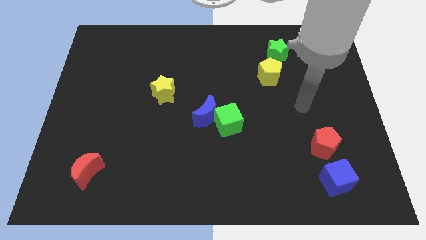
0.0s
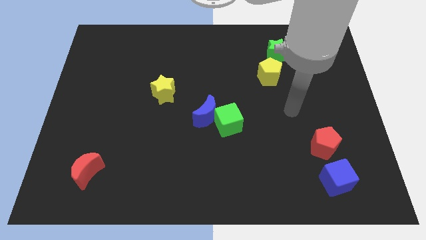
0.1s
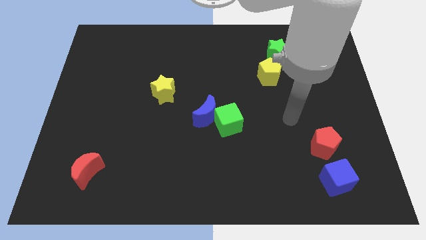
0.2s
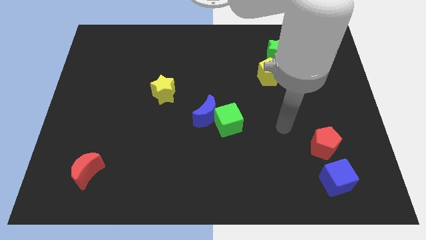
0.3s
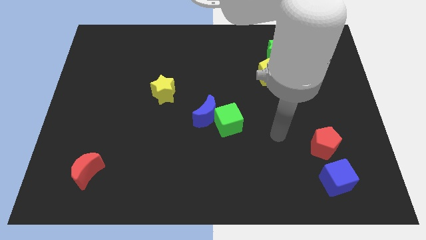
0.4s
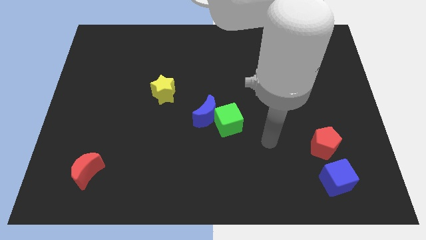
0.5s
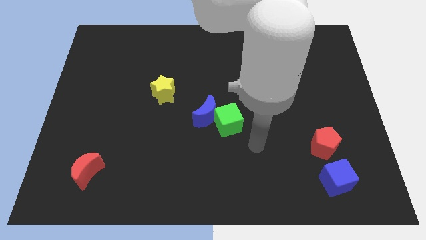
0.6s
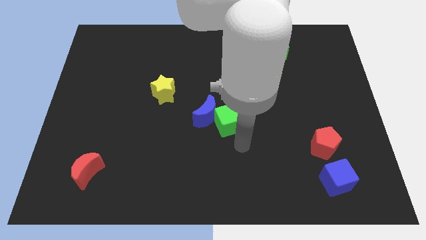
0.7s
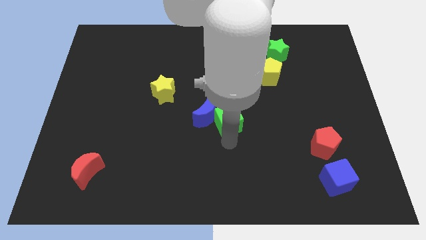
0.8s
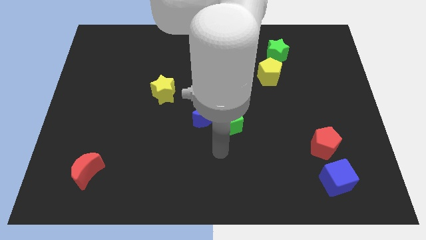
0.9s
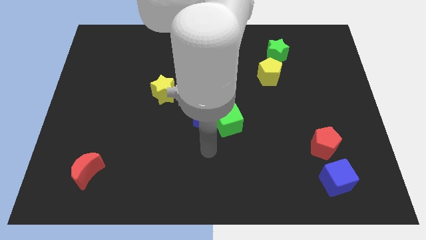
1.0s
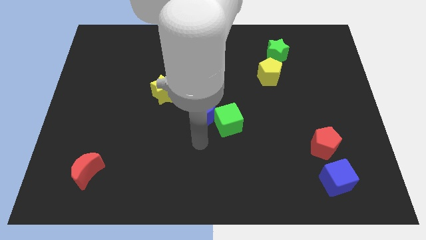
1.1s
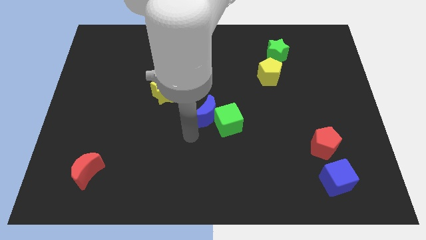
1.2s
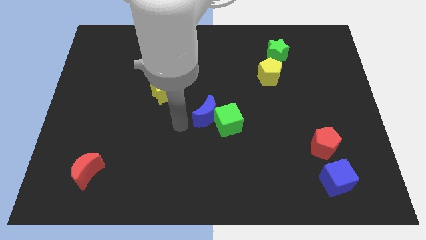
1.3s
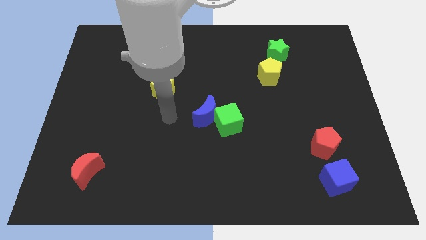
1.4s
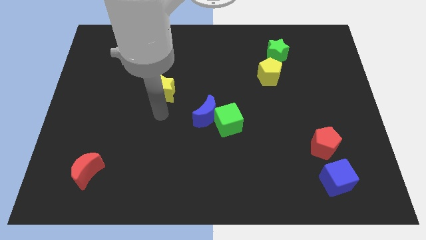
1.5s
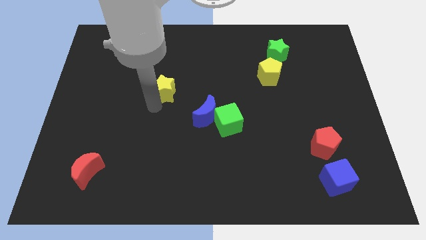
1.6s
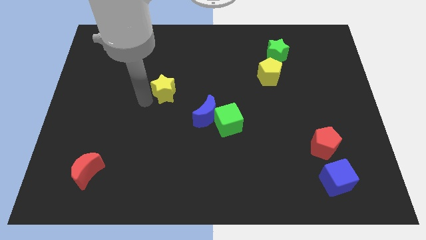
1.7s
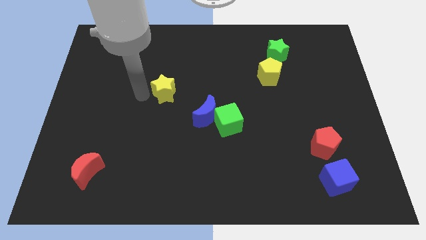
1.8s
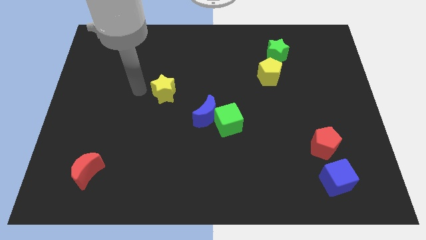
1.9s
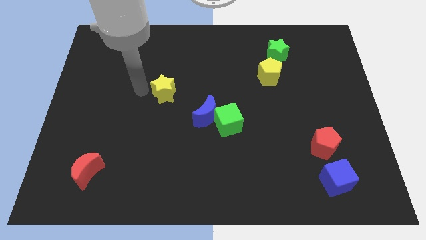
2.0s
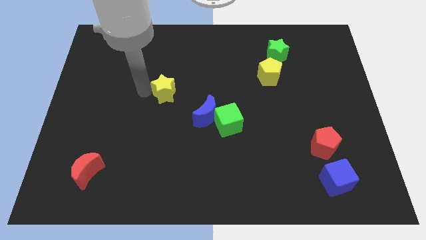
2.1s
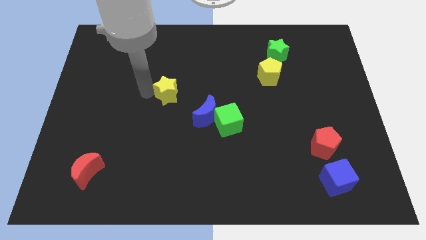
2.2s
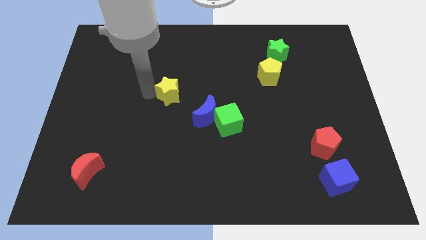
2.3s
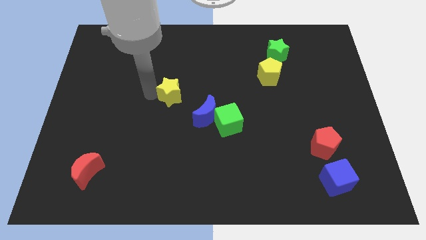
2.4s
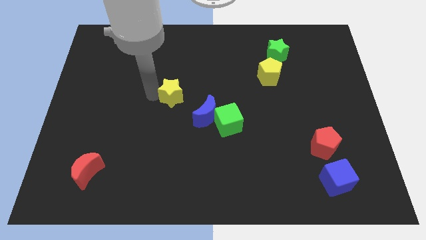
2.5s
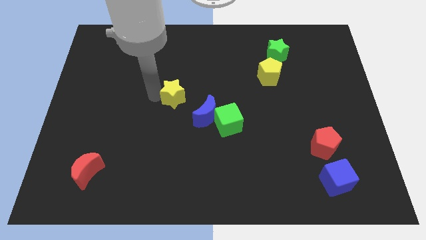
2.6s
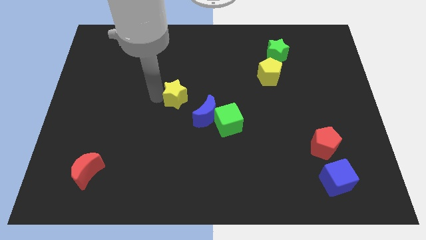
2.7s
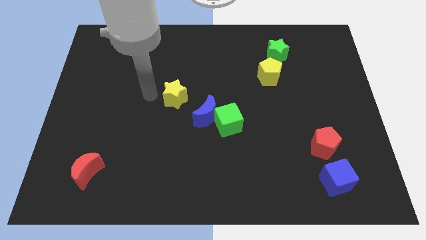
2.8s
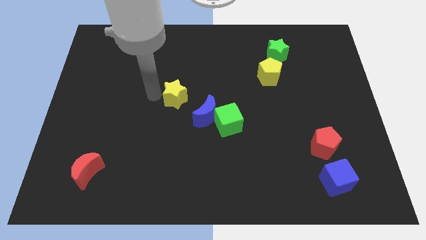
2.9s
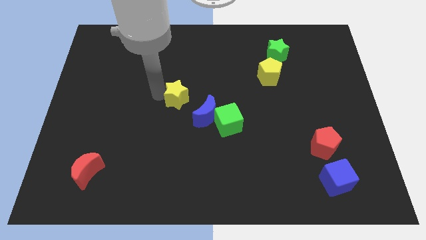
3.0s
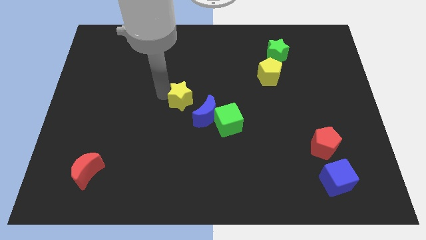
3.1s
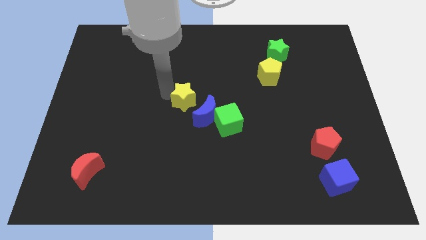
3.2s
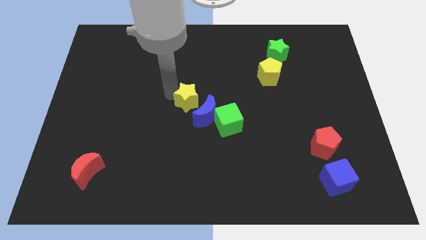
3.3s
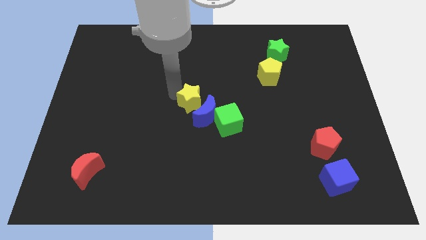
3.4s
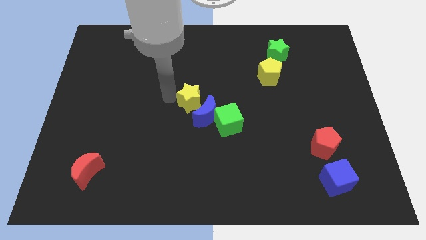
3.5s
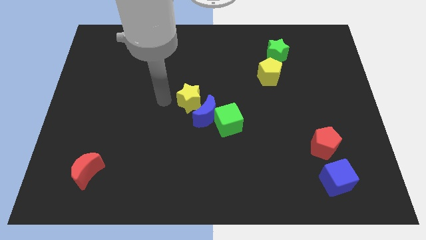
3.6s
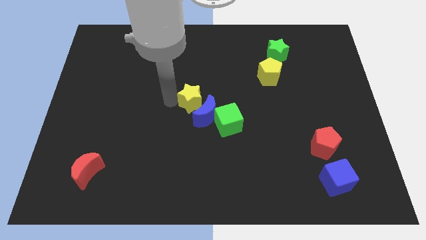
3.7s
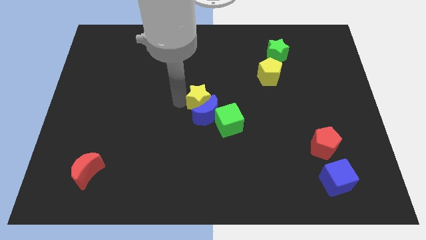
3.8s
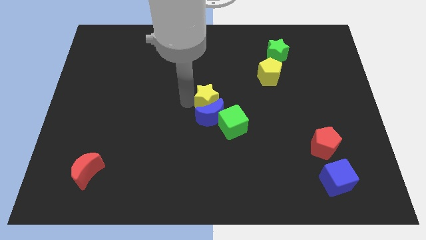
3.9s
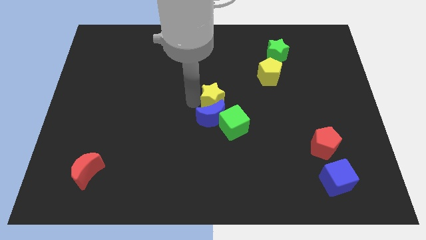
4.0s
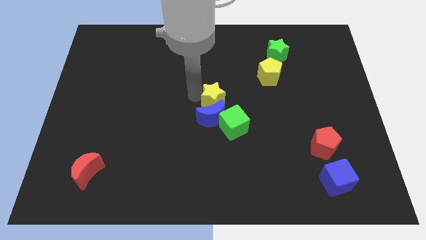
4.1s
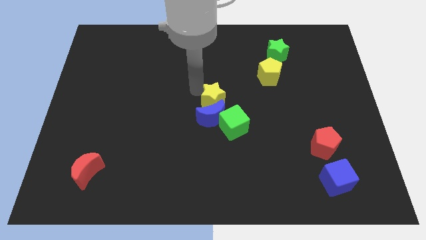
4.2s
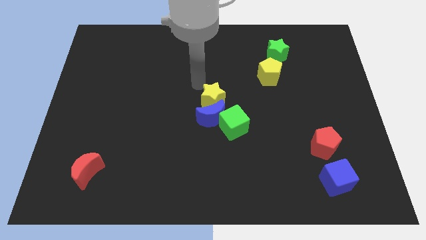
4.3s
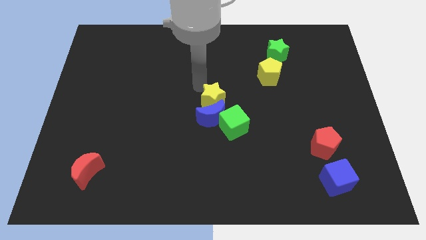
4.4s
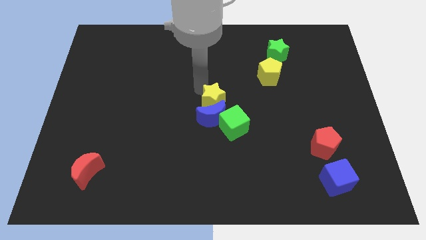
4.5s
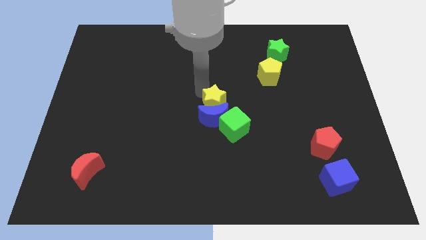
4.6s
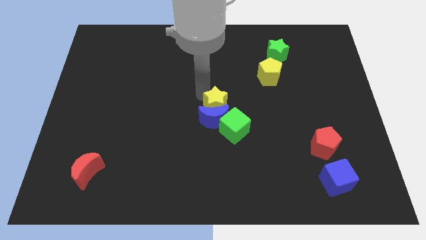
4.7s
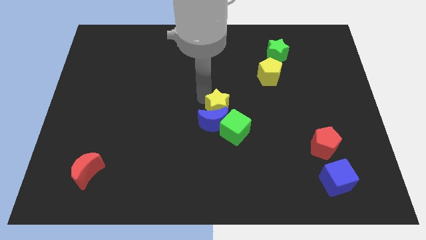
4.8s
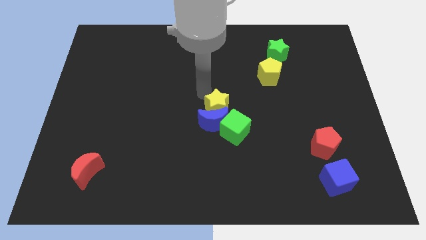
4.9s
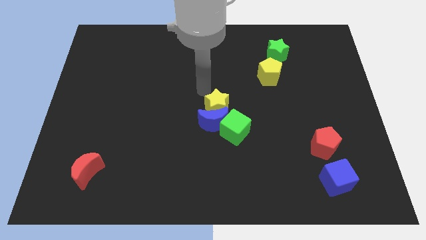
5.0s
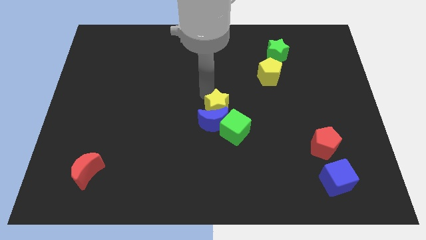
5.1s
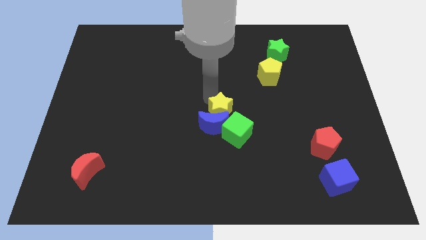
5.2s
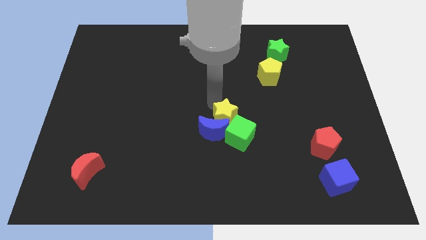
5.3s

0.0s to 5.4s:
move the yellow star close to the green cube

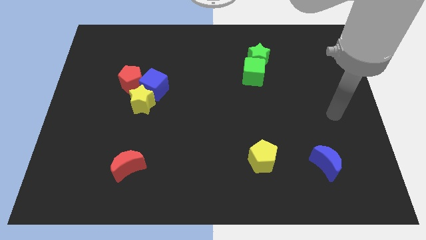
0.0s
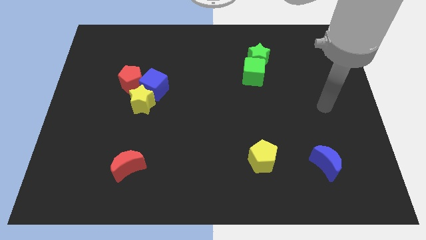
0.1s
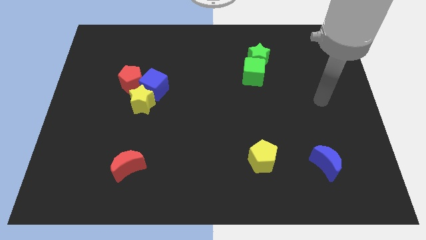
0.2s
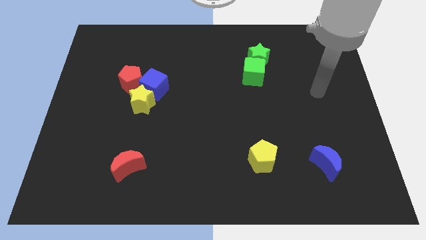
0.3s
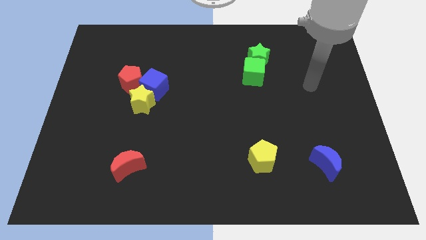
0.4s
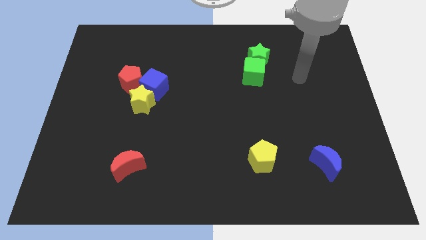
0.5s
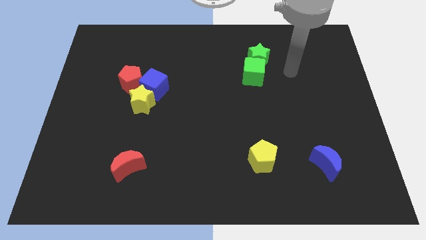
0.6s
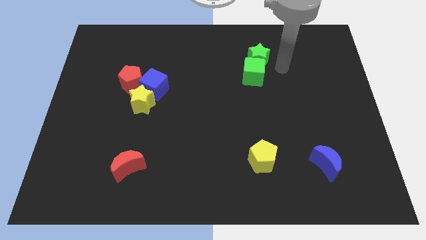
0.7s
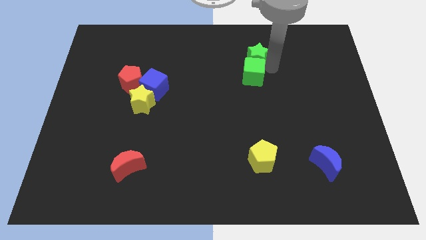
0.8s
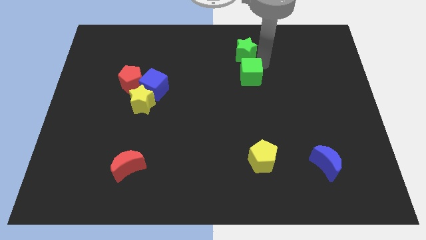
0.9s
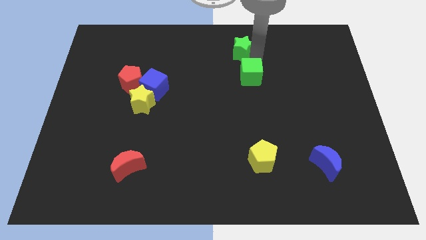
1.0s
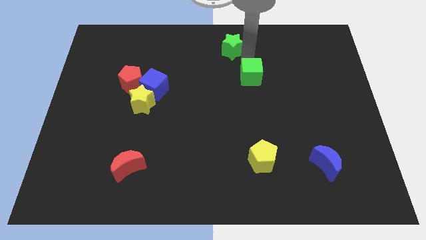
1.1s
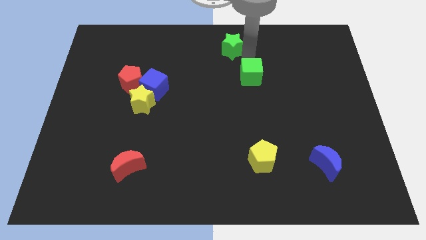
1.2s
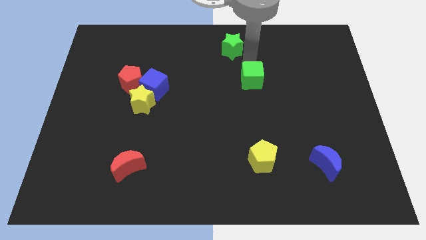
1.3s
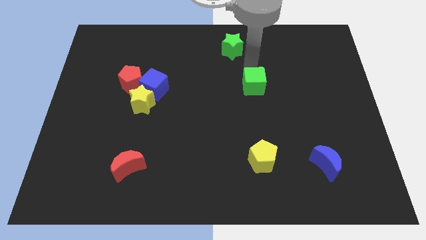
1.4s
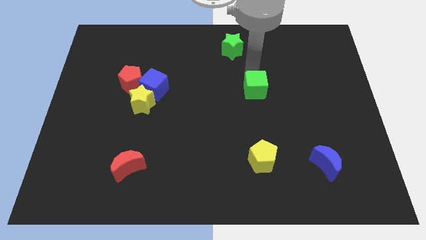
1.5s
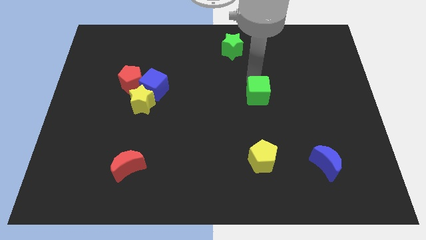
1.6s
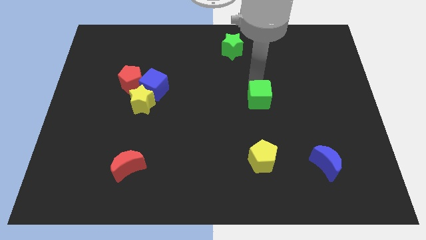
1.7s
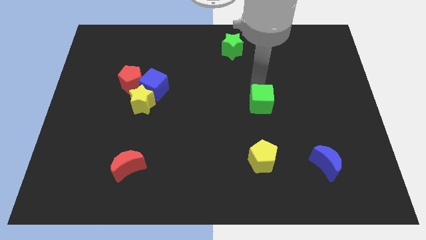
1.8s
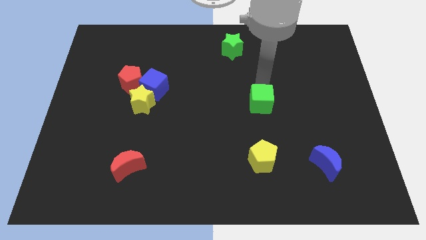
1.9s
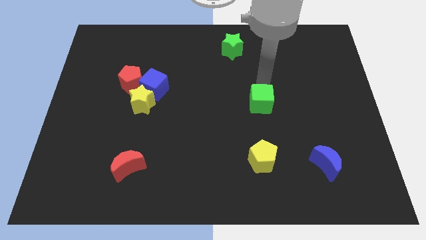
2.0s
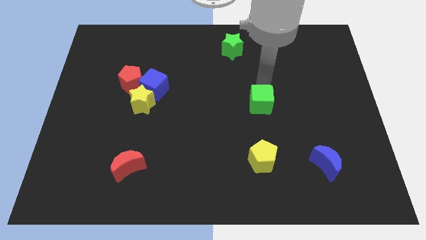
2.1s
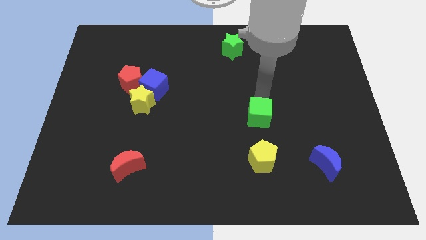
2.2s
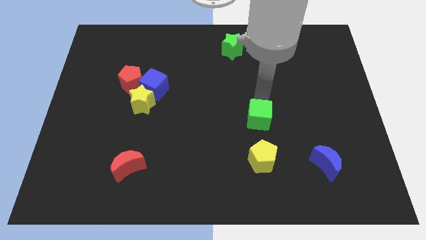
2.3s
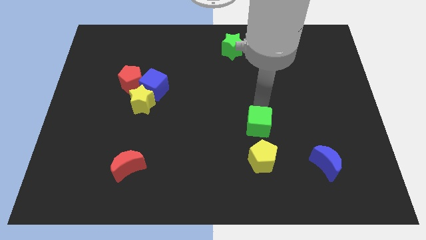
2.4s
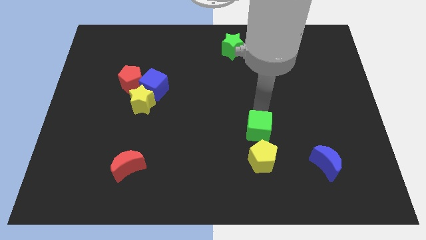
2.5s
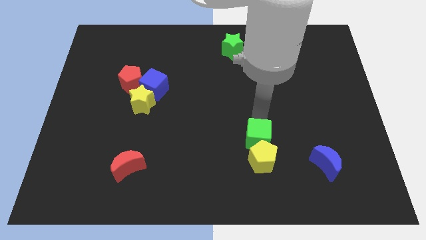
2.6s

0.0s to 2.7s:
push the green cube close to the yellow pentagon
